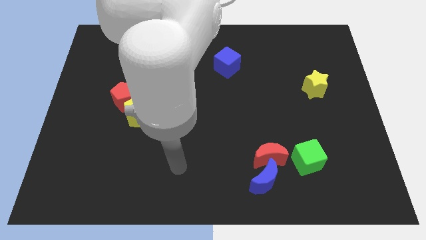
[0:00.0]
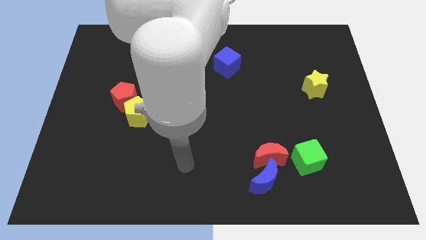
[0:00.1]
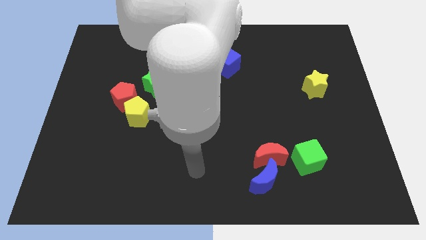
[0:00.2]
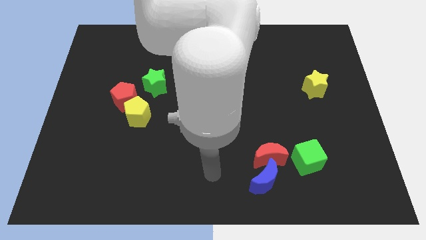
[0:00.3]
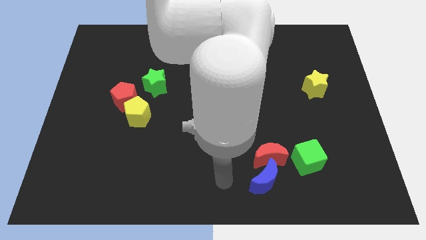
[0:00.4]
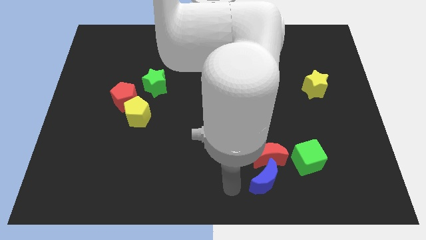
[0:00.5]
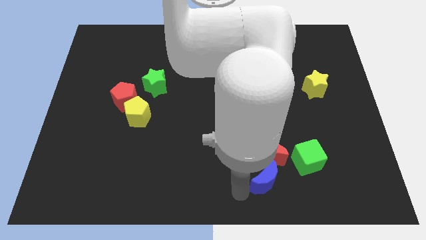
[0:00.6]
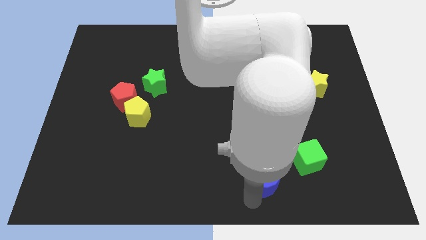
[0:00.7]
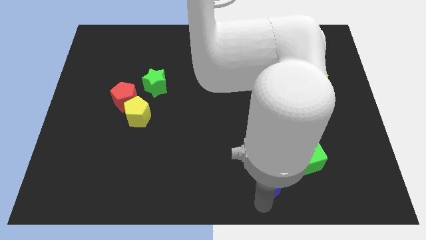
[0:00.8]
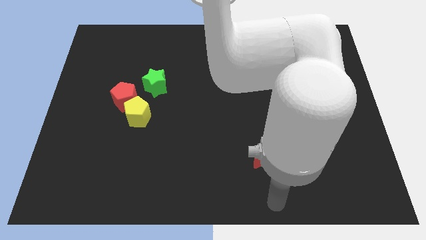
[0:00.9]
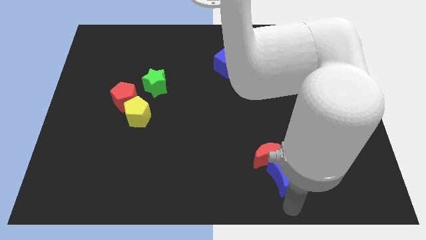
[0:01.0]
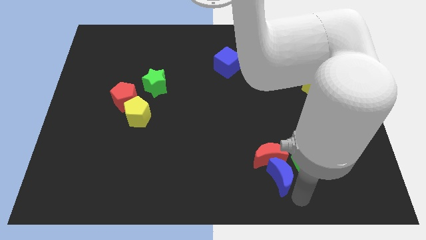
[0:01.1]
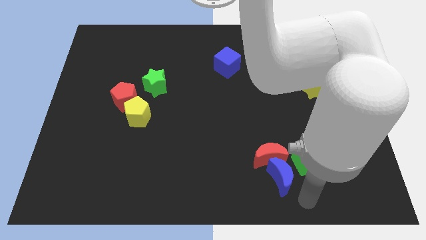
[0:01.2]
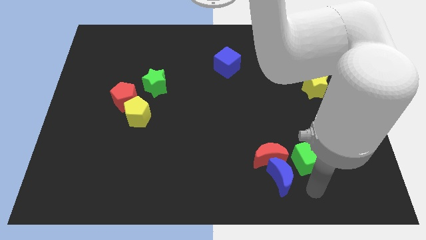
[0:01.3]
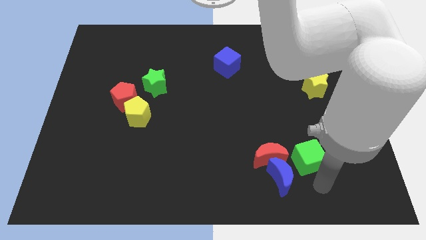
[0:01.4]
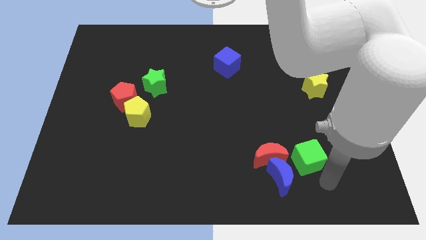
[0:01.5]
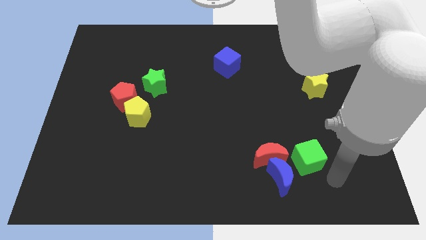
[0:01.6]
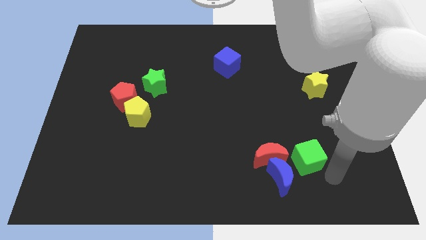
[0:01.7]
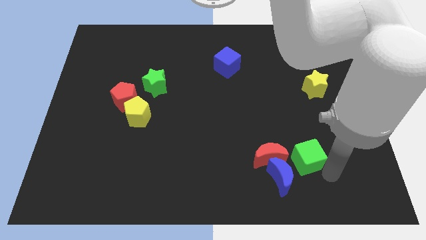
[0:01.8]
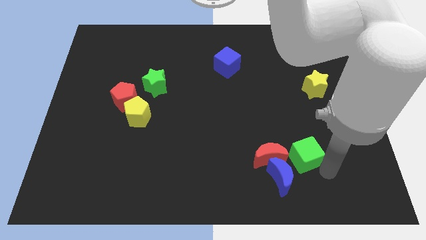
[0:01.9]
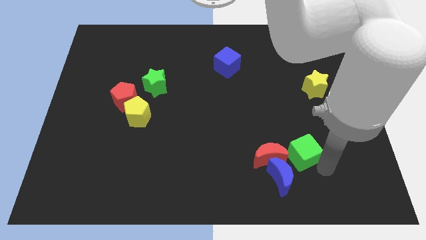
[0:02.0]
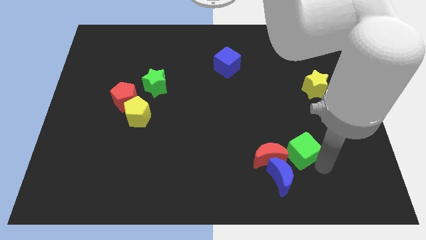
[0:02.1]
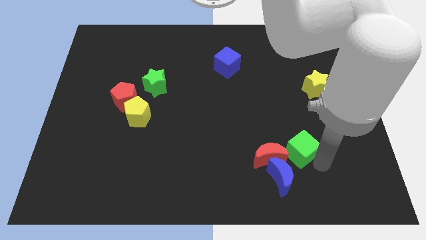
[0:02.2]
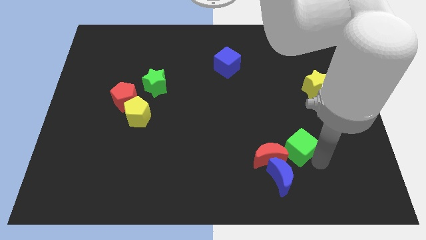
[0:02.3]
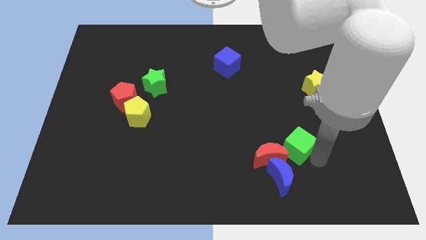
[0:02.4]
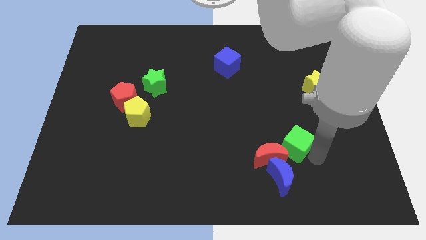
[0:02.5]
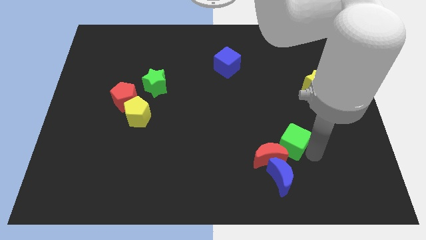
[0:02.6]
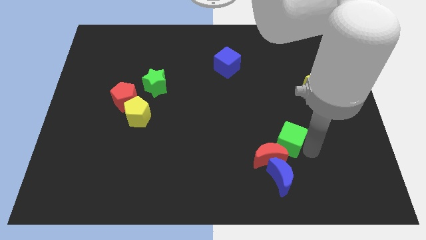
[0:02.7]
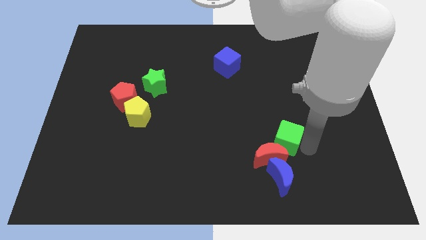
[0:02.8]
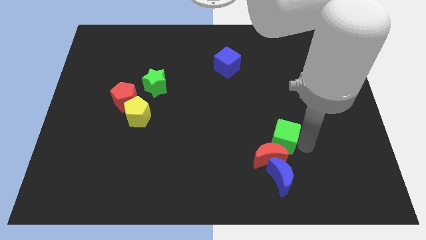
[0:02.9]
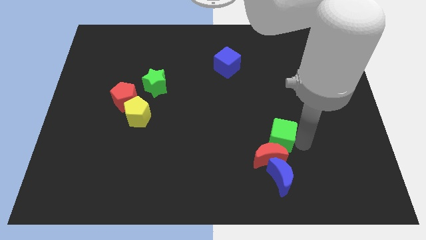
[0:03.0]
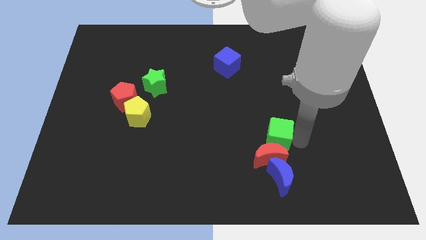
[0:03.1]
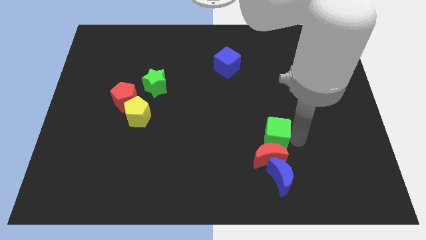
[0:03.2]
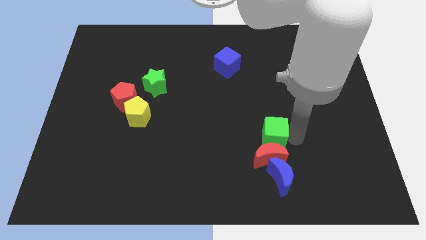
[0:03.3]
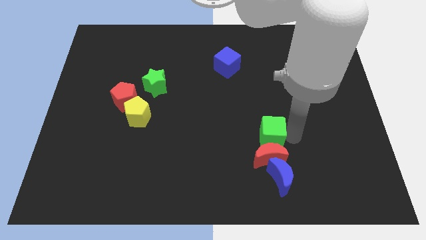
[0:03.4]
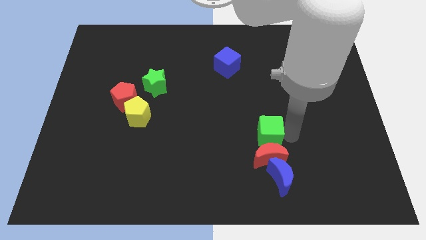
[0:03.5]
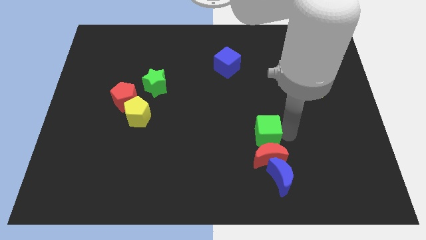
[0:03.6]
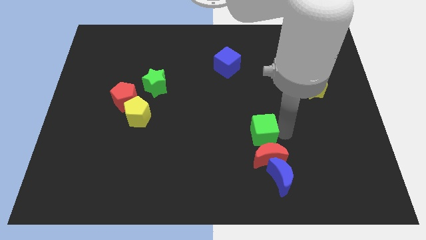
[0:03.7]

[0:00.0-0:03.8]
push the green cube slightly left

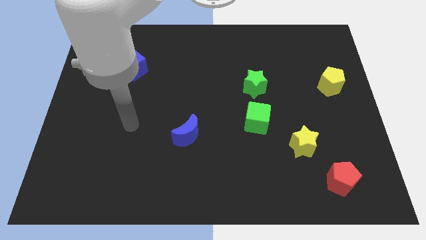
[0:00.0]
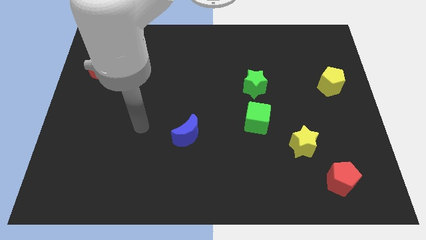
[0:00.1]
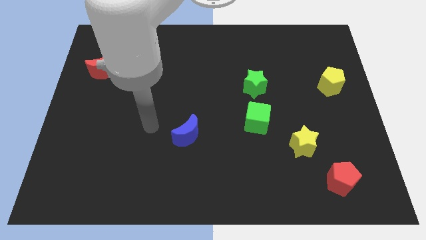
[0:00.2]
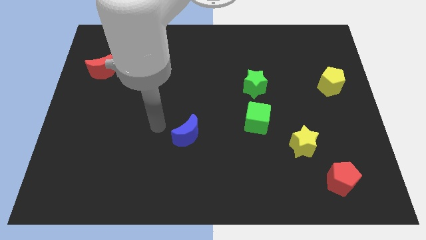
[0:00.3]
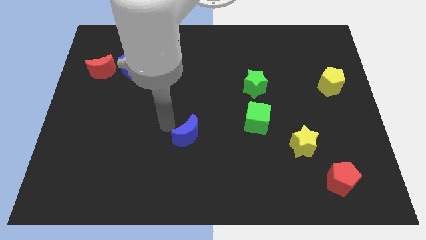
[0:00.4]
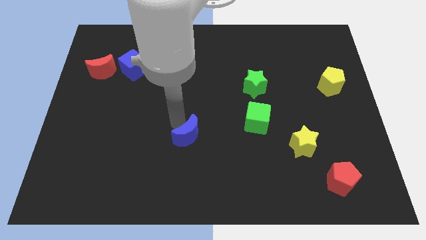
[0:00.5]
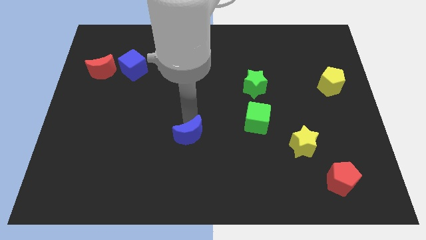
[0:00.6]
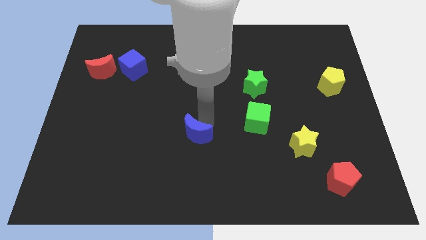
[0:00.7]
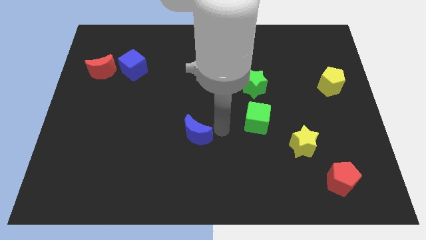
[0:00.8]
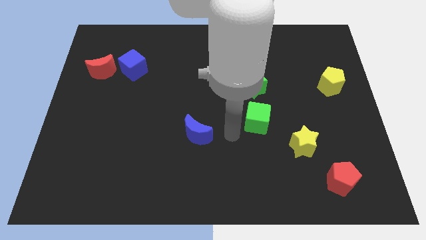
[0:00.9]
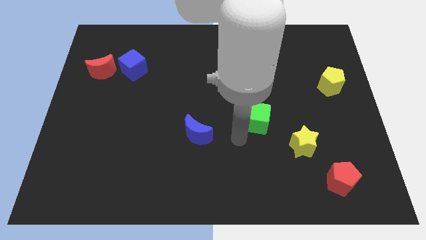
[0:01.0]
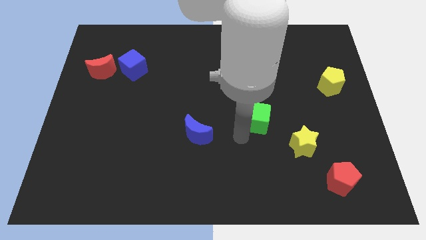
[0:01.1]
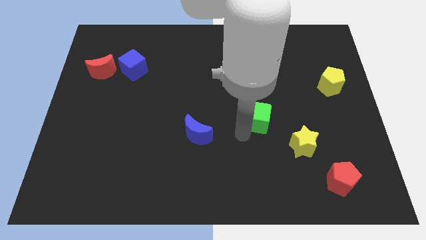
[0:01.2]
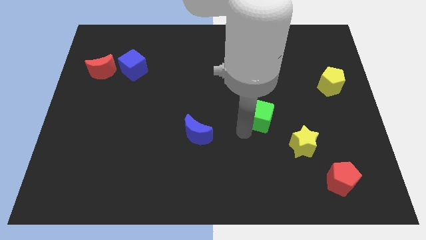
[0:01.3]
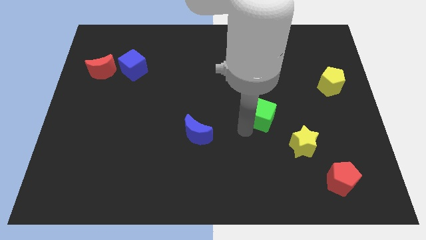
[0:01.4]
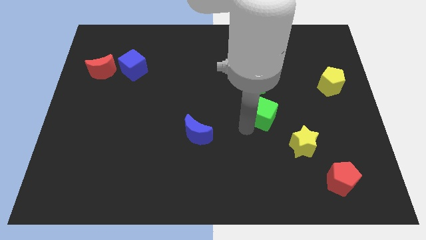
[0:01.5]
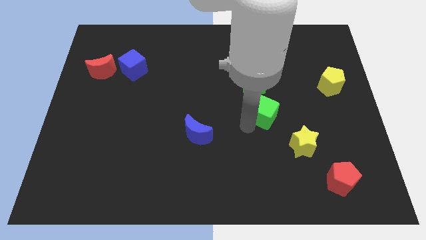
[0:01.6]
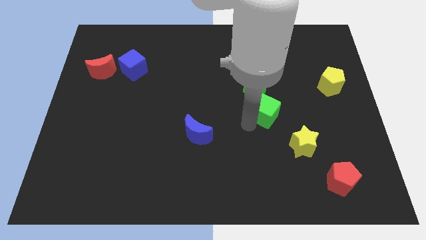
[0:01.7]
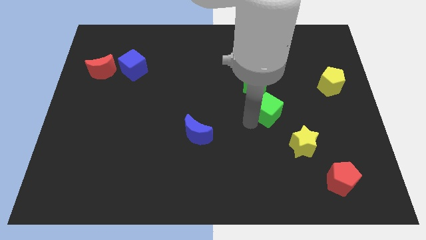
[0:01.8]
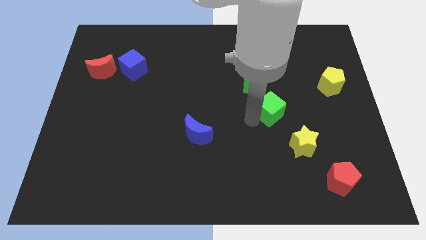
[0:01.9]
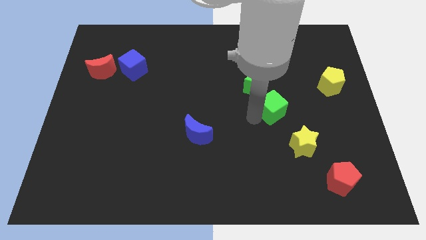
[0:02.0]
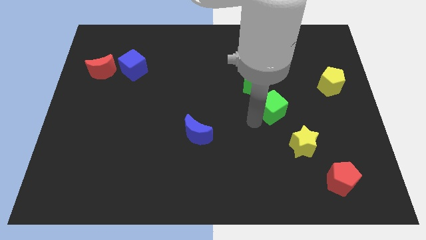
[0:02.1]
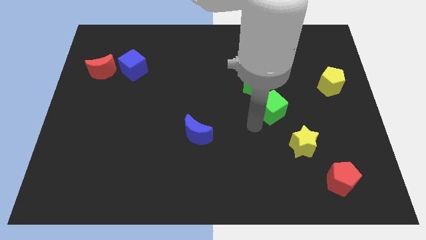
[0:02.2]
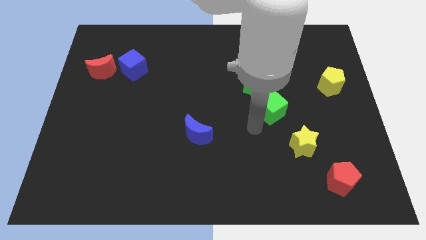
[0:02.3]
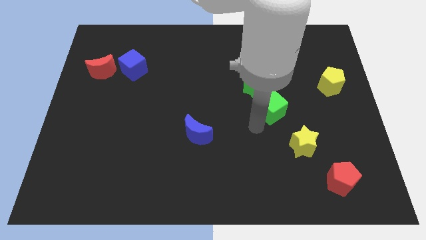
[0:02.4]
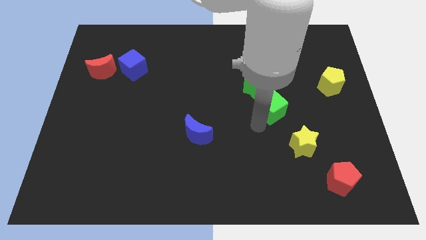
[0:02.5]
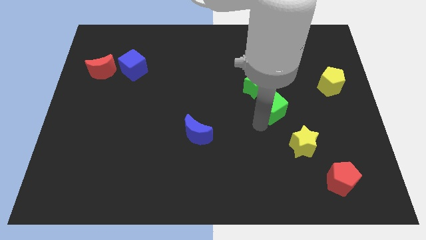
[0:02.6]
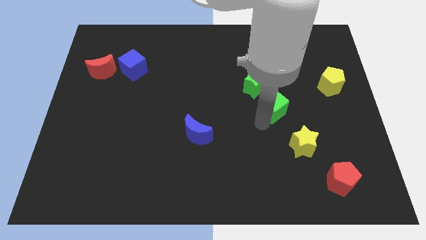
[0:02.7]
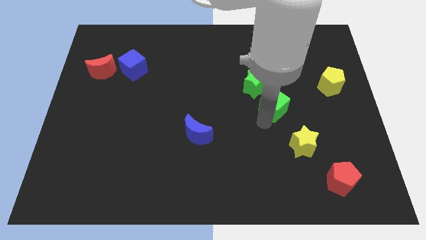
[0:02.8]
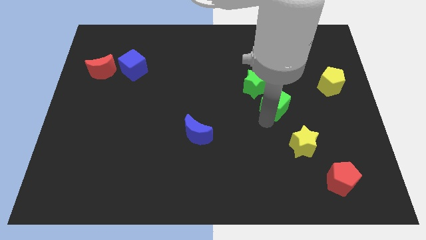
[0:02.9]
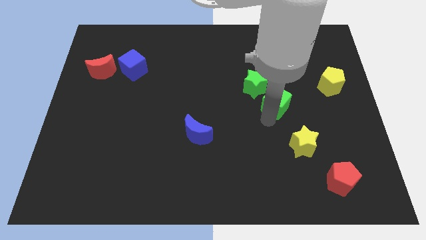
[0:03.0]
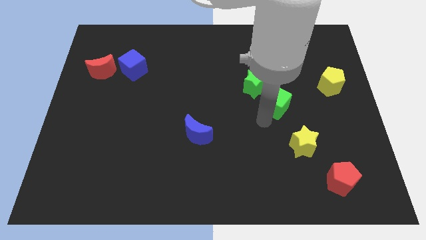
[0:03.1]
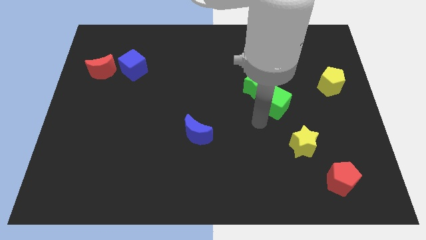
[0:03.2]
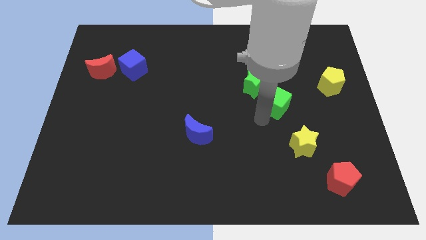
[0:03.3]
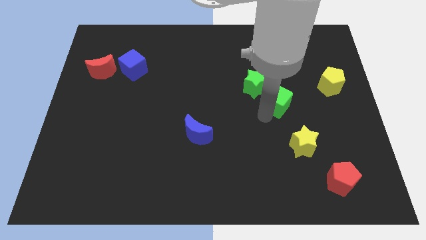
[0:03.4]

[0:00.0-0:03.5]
slightly move the green cube diagonally up and to the right

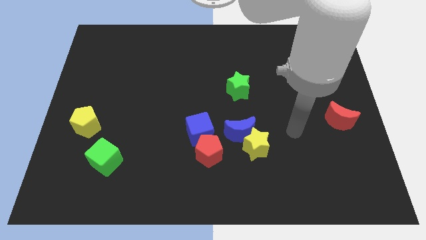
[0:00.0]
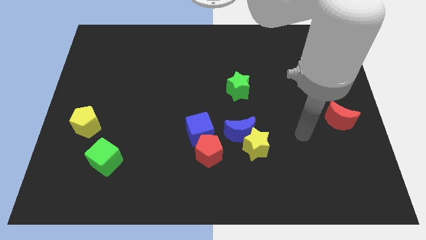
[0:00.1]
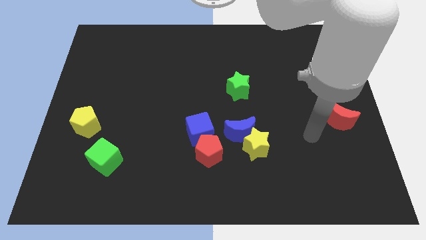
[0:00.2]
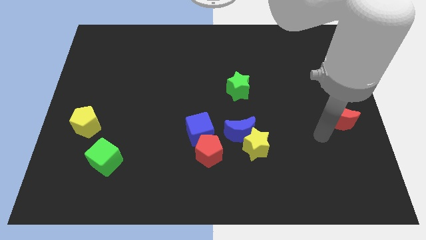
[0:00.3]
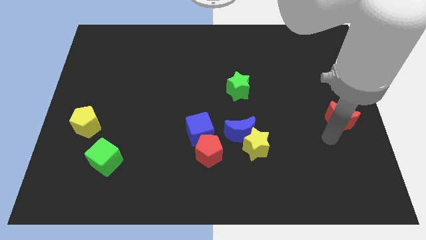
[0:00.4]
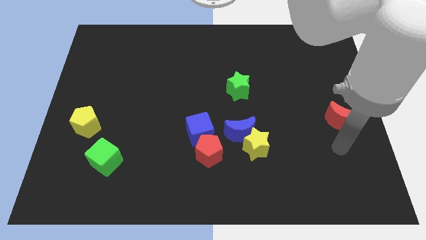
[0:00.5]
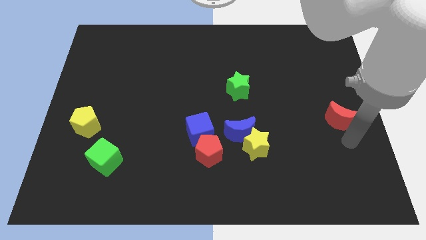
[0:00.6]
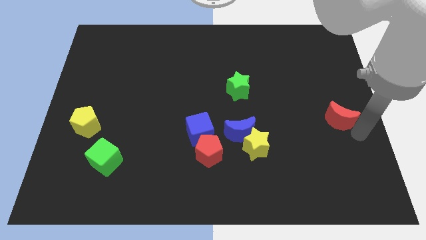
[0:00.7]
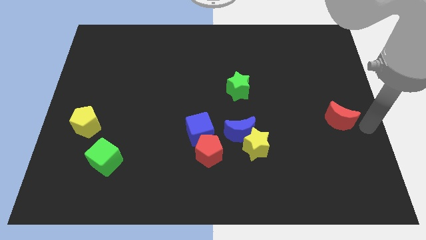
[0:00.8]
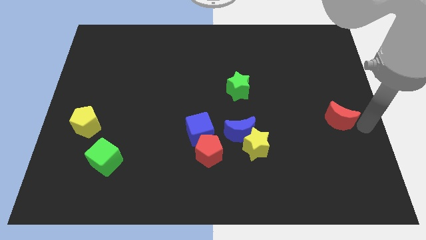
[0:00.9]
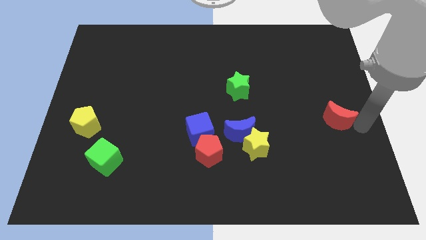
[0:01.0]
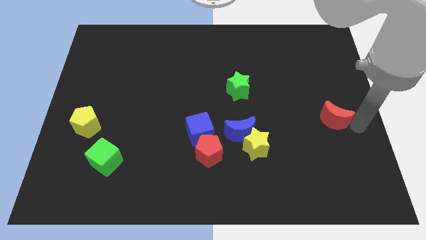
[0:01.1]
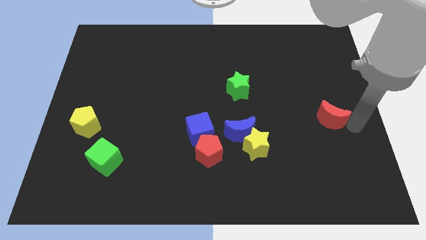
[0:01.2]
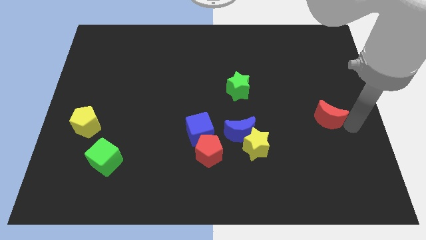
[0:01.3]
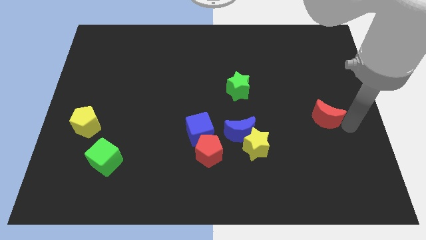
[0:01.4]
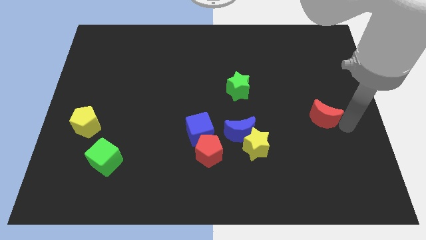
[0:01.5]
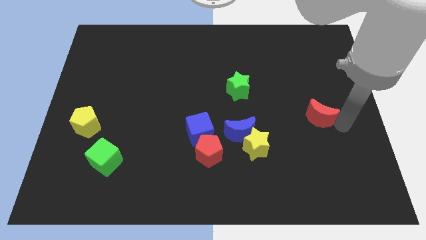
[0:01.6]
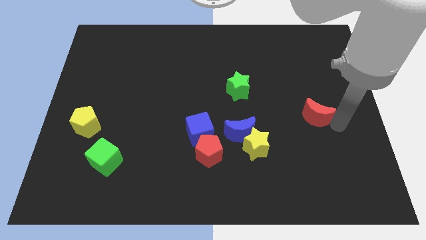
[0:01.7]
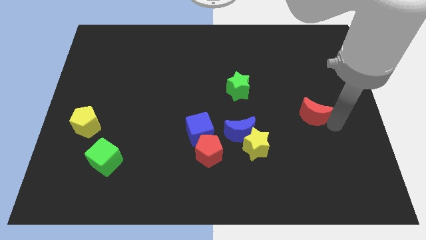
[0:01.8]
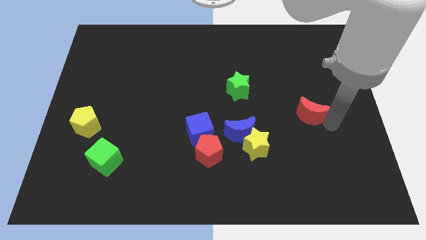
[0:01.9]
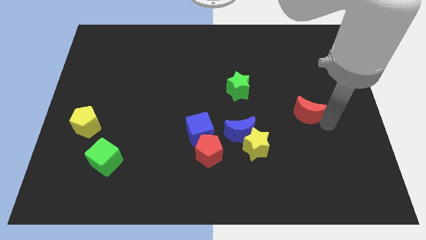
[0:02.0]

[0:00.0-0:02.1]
slightly move the red moon to the left
